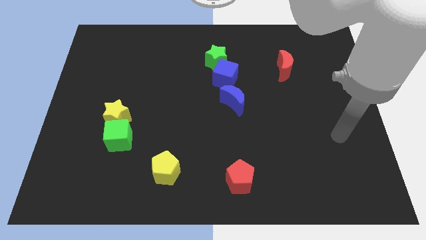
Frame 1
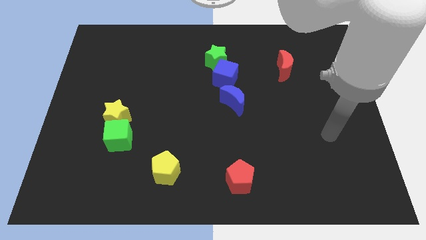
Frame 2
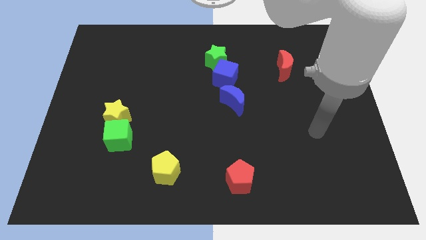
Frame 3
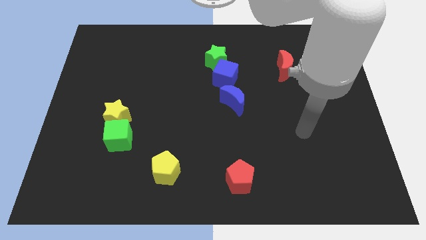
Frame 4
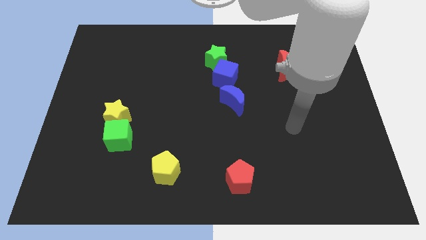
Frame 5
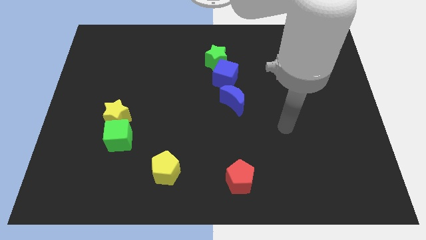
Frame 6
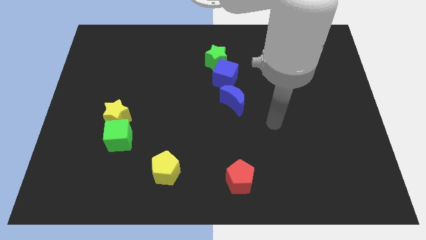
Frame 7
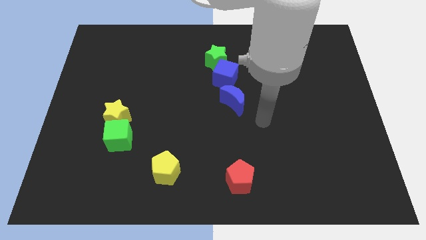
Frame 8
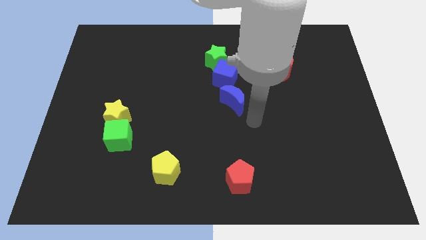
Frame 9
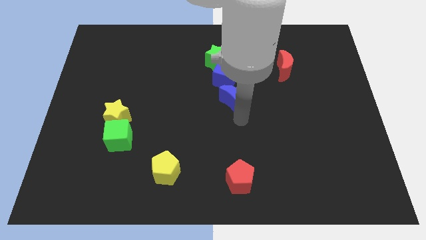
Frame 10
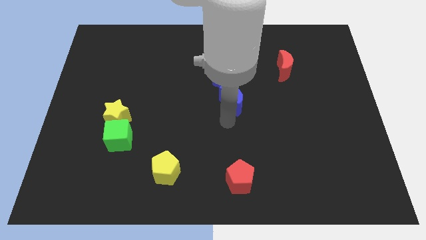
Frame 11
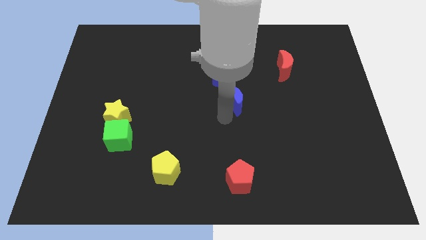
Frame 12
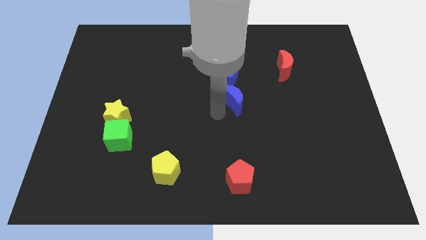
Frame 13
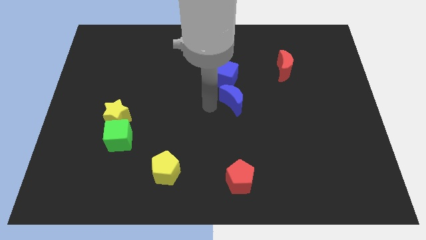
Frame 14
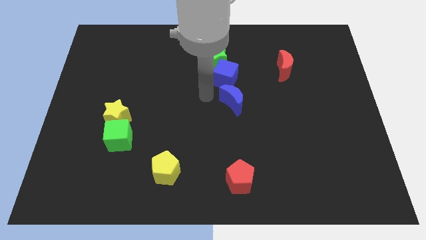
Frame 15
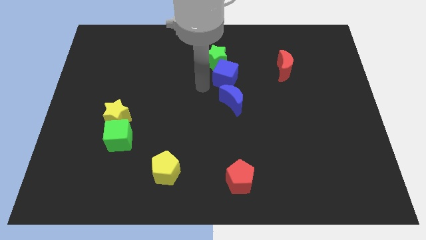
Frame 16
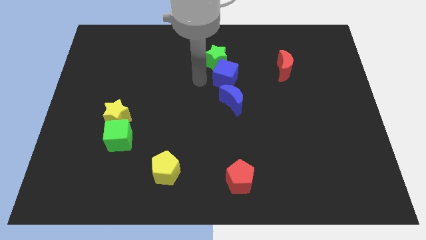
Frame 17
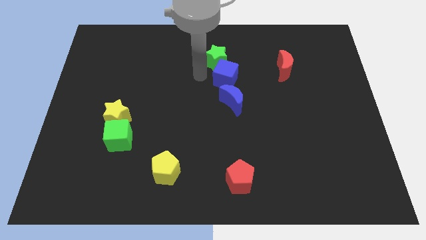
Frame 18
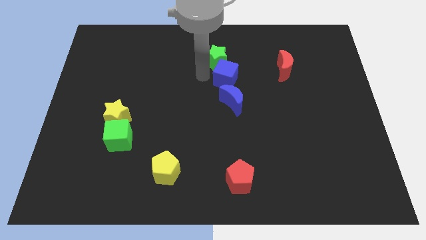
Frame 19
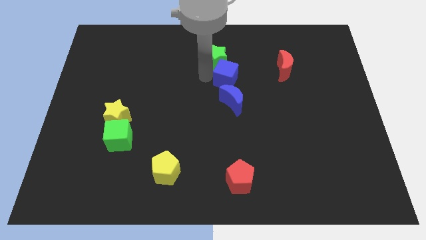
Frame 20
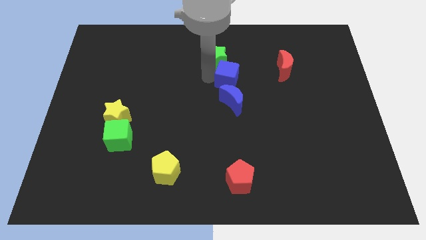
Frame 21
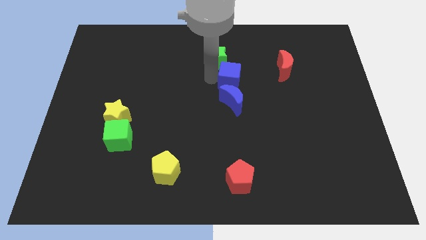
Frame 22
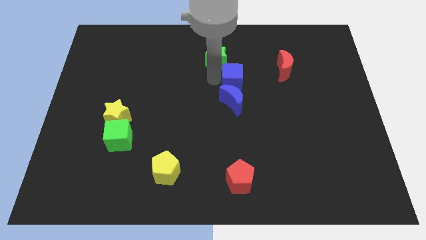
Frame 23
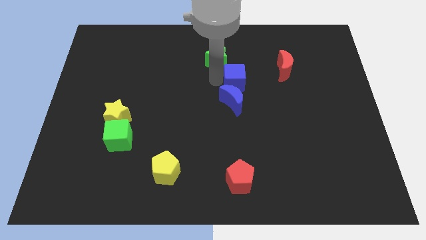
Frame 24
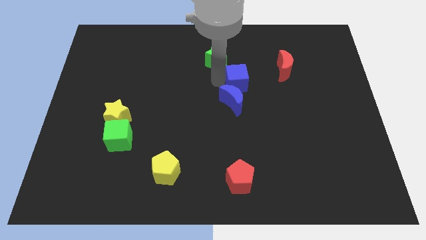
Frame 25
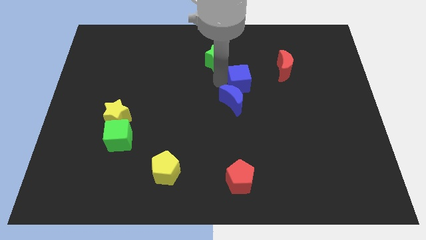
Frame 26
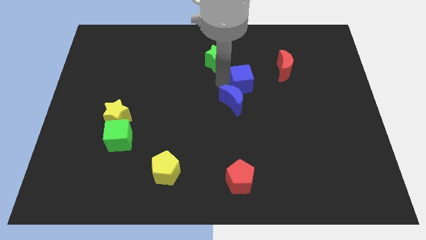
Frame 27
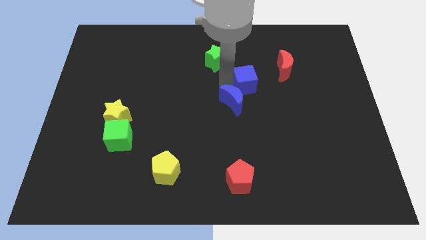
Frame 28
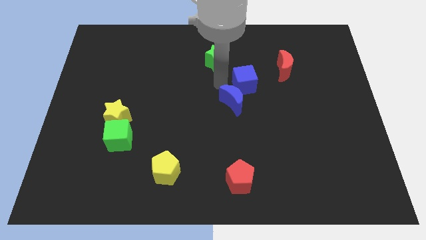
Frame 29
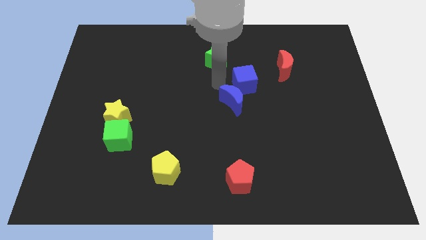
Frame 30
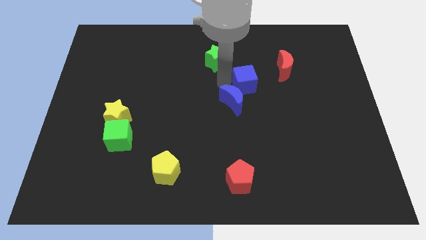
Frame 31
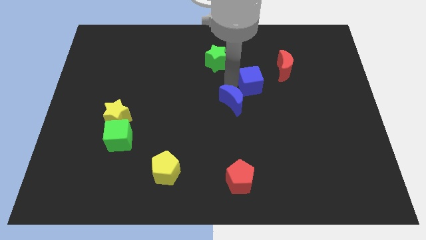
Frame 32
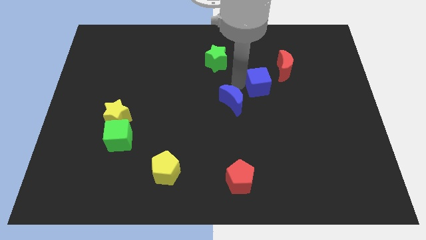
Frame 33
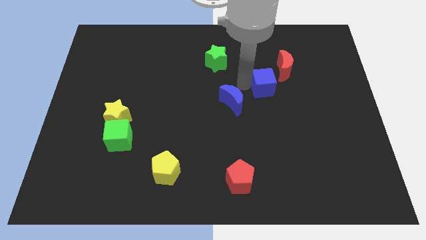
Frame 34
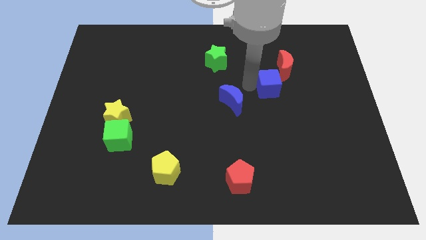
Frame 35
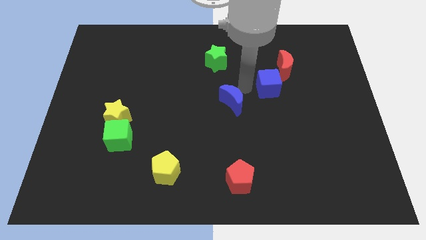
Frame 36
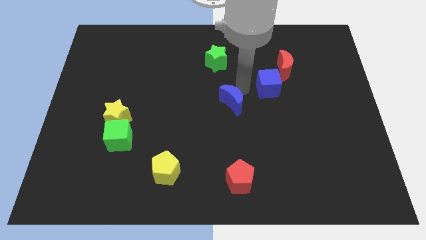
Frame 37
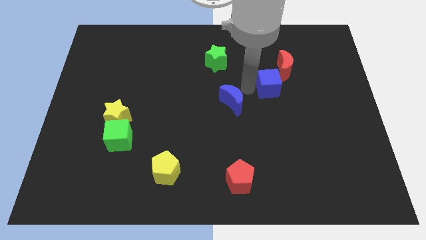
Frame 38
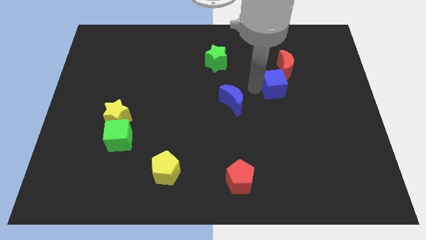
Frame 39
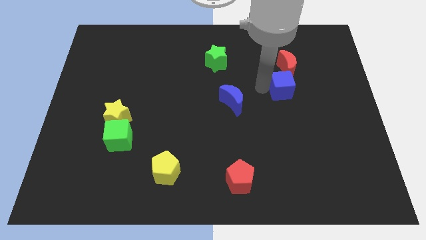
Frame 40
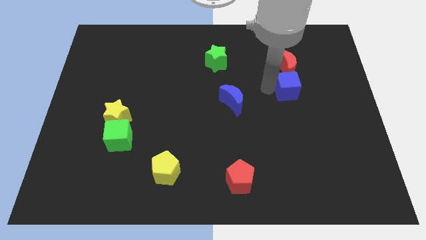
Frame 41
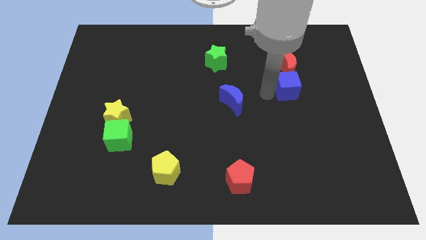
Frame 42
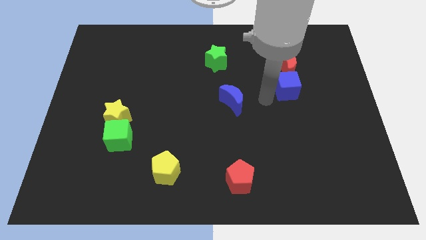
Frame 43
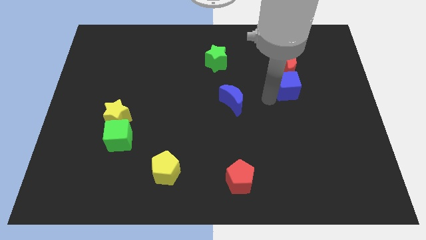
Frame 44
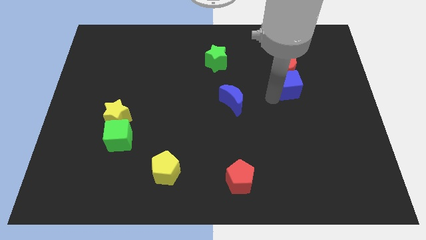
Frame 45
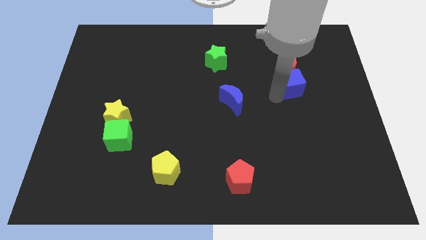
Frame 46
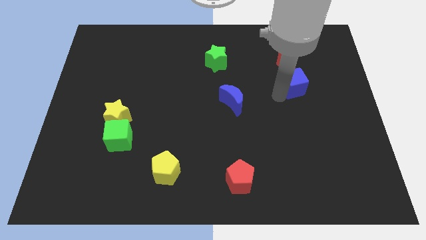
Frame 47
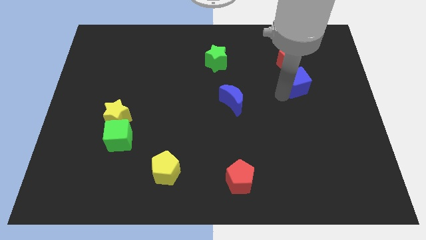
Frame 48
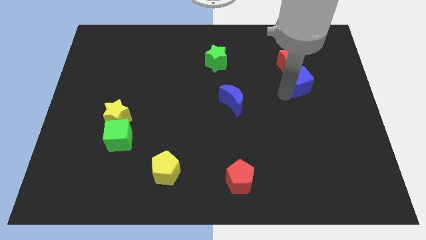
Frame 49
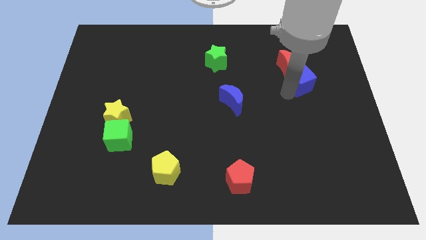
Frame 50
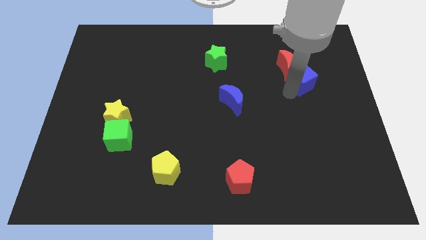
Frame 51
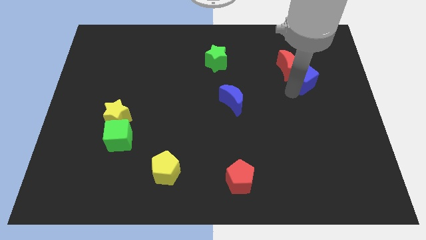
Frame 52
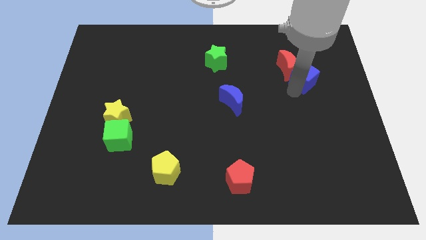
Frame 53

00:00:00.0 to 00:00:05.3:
push the blue cube just right of the red moon

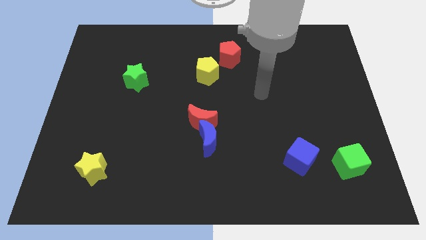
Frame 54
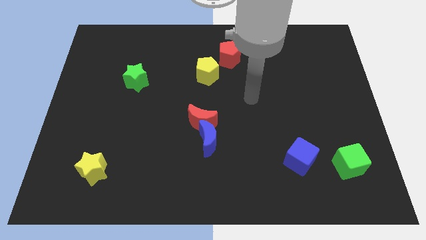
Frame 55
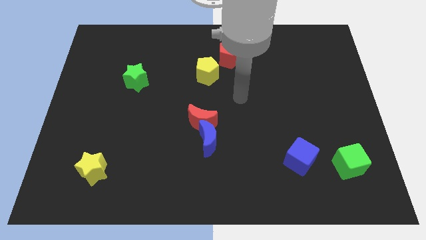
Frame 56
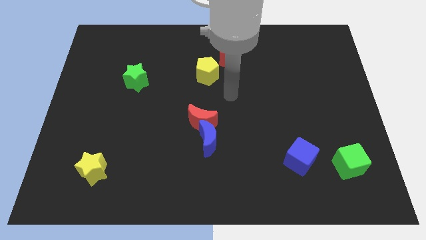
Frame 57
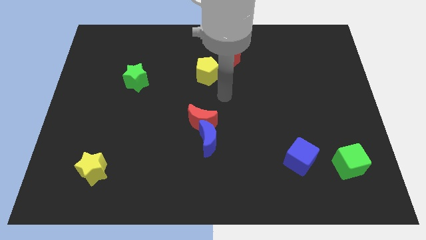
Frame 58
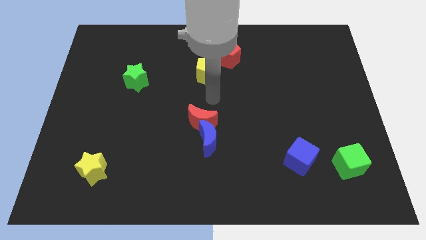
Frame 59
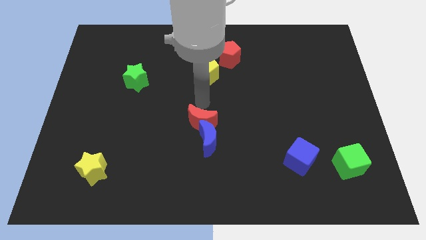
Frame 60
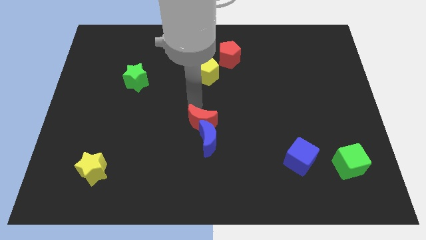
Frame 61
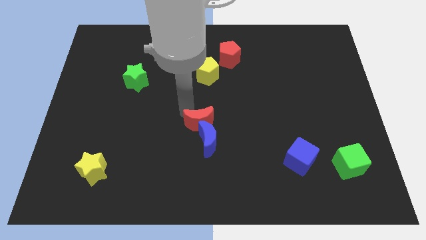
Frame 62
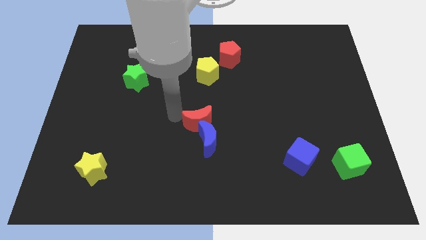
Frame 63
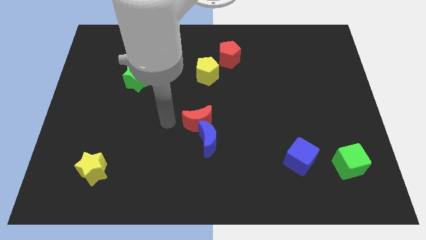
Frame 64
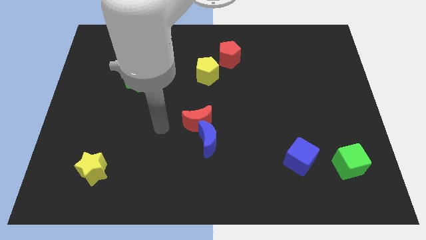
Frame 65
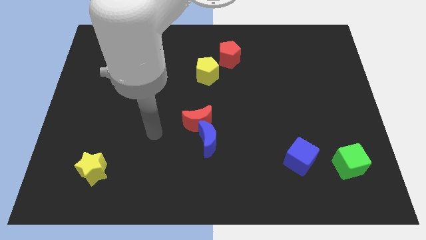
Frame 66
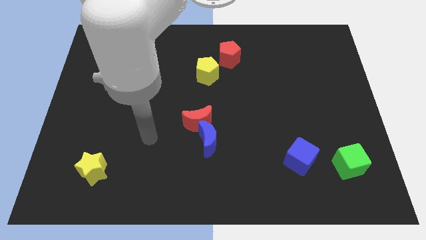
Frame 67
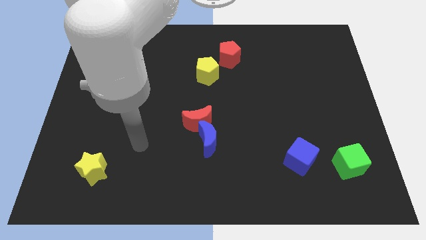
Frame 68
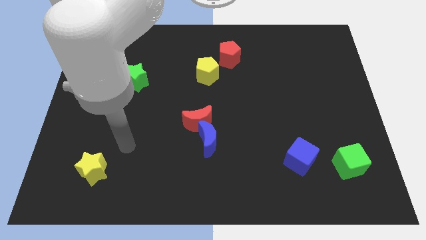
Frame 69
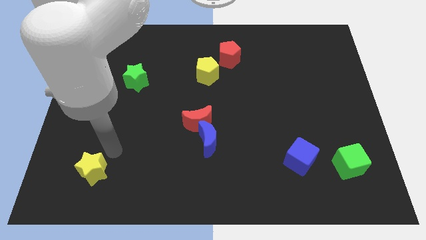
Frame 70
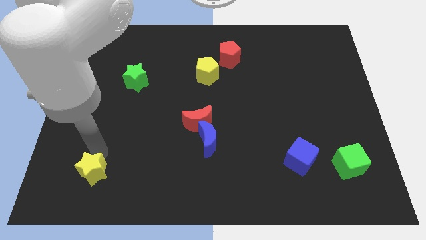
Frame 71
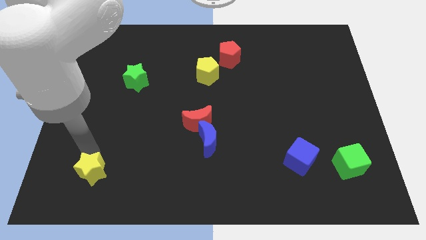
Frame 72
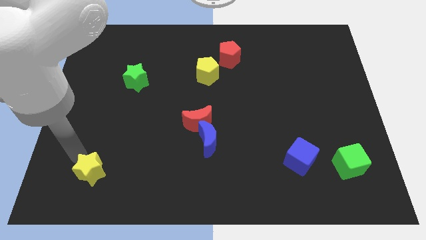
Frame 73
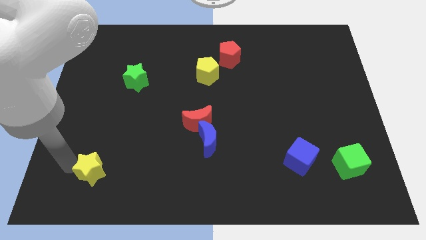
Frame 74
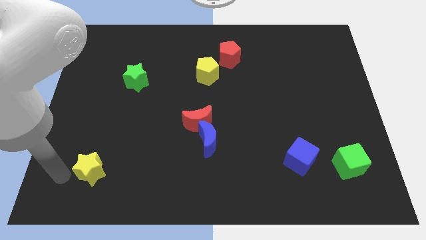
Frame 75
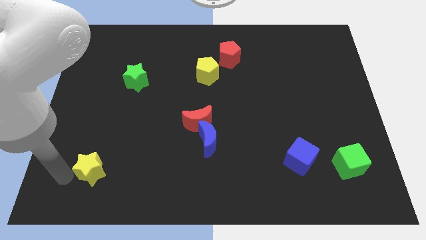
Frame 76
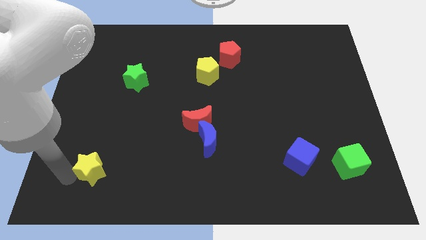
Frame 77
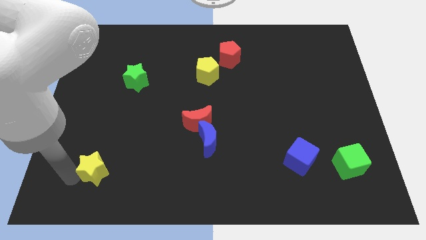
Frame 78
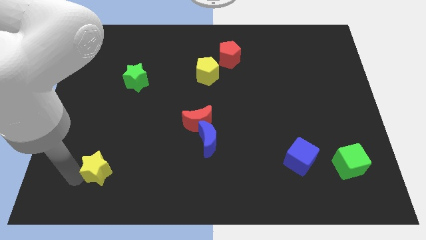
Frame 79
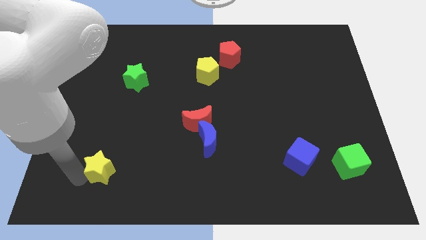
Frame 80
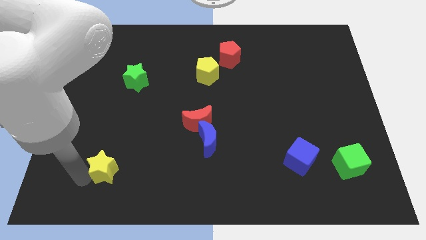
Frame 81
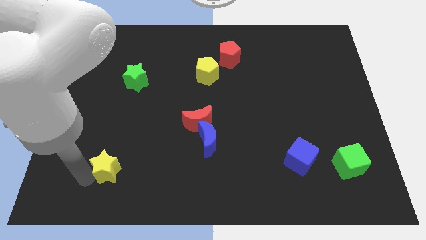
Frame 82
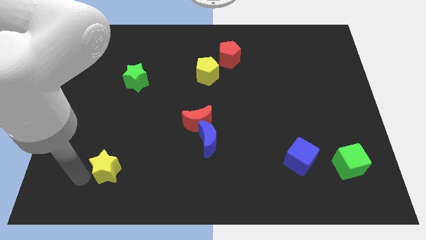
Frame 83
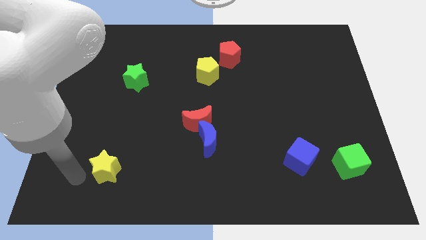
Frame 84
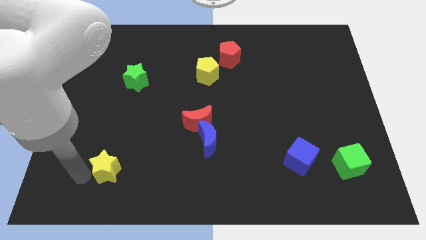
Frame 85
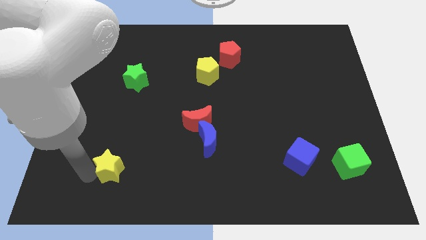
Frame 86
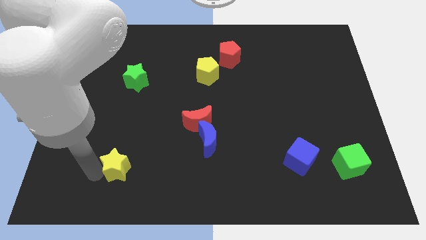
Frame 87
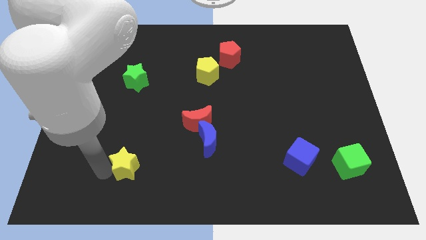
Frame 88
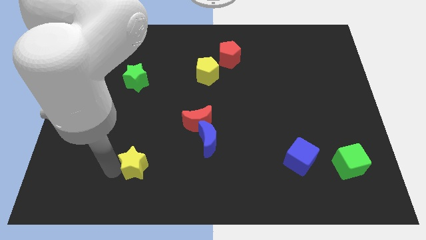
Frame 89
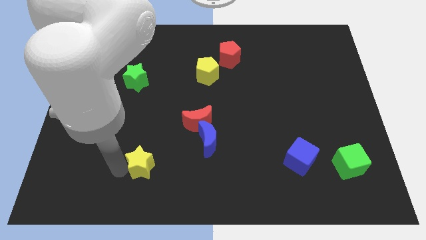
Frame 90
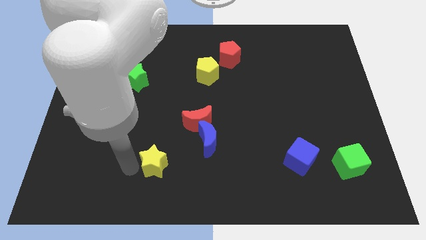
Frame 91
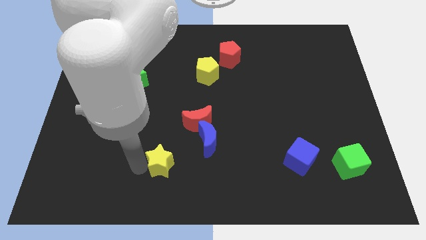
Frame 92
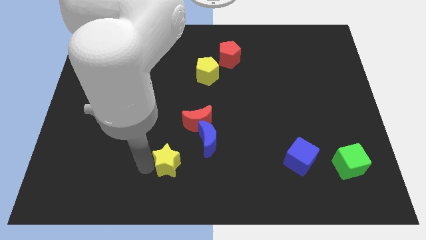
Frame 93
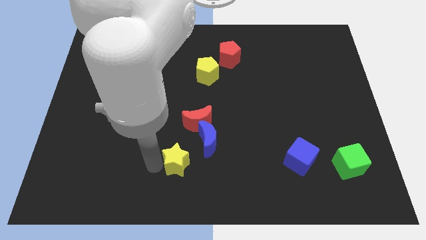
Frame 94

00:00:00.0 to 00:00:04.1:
put the yellow star to the bottom of the red moon
